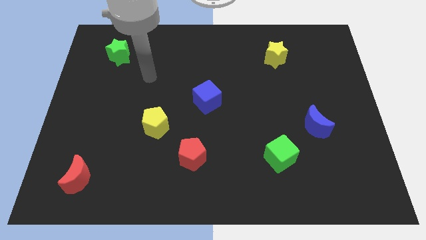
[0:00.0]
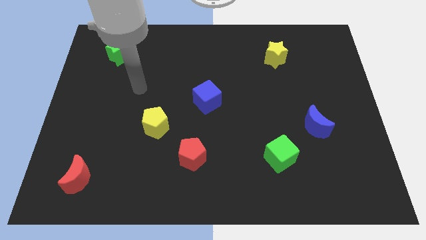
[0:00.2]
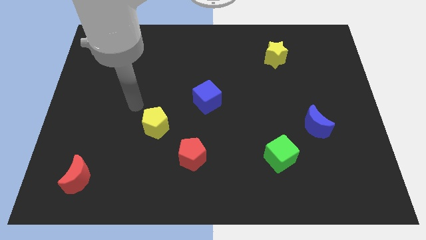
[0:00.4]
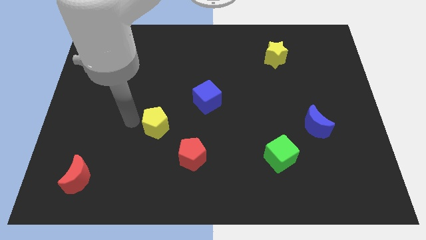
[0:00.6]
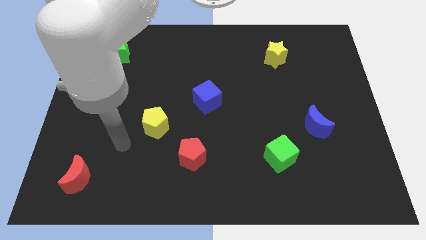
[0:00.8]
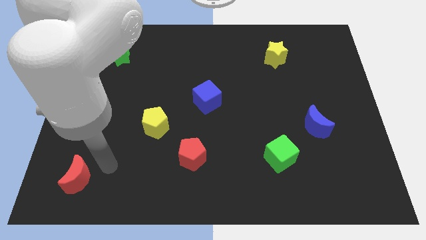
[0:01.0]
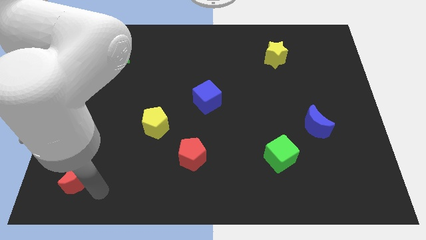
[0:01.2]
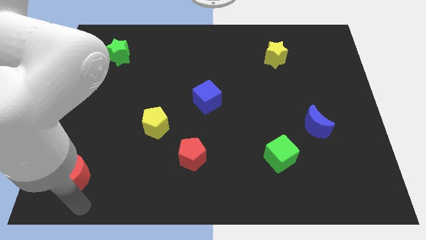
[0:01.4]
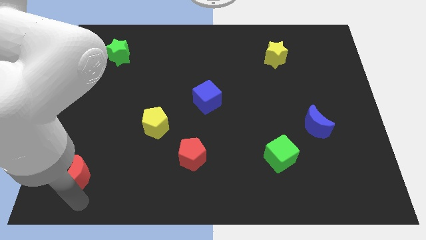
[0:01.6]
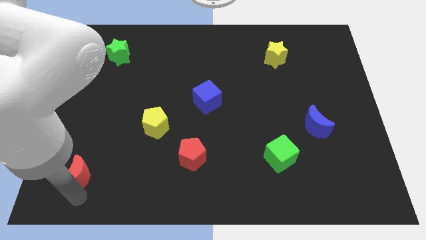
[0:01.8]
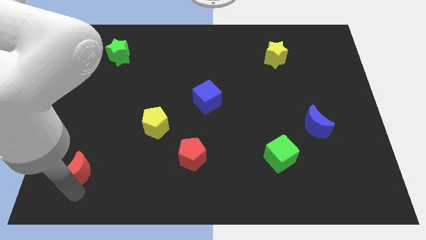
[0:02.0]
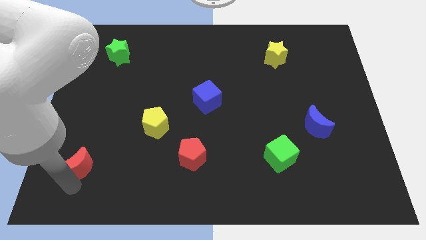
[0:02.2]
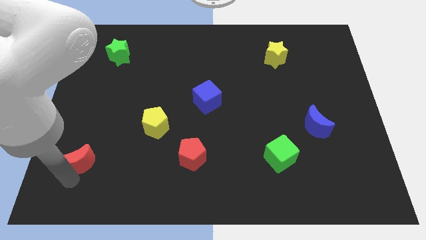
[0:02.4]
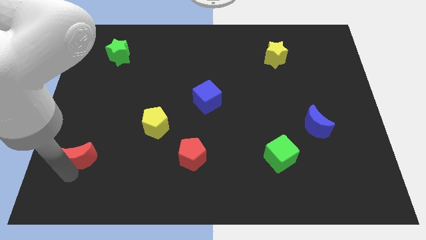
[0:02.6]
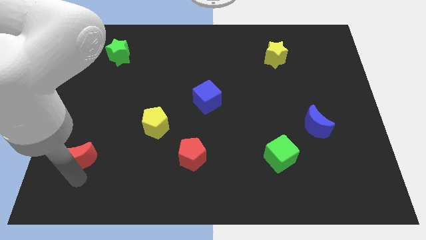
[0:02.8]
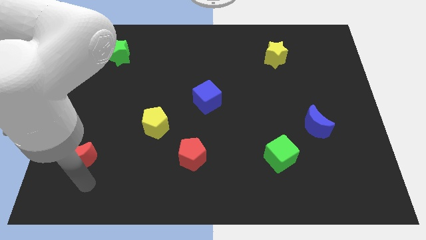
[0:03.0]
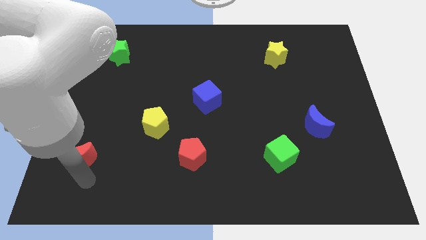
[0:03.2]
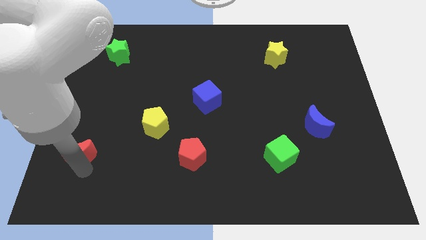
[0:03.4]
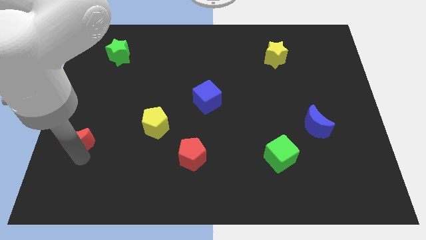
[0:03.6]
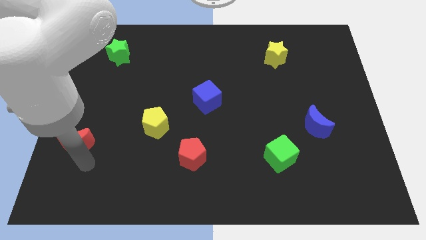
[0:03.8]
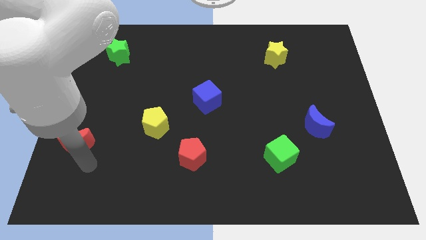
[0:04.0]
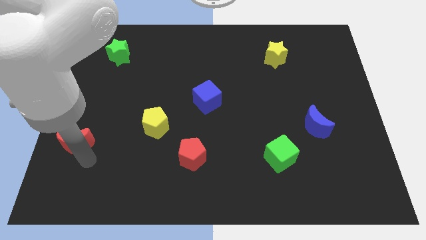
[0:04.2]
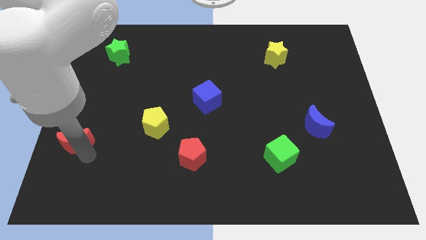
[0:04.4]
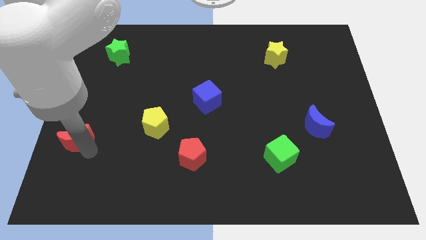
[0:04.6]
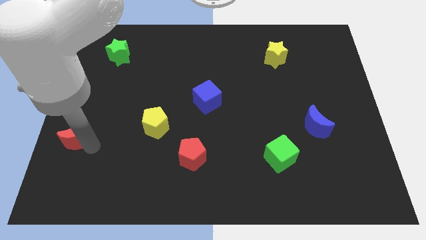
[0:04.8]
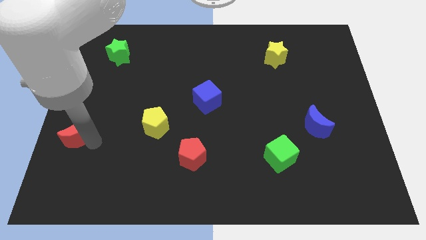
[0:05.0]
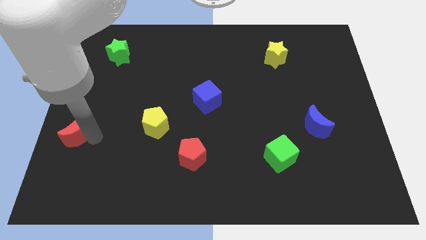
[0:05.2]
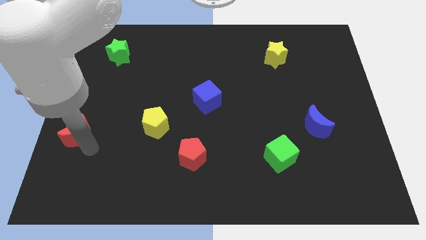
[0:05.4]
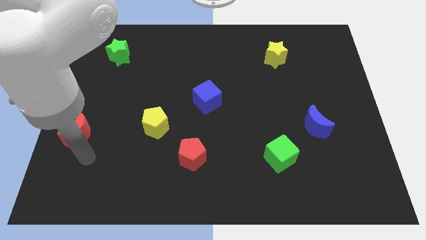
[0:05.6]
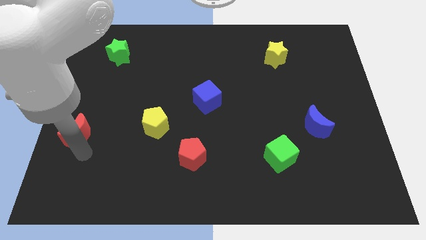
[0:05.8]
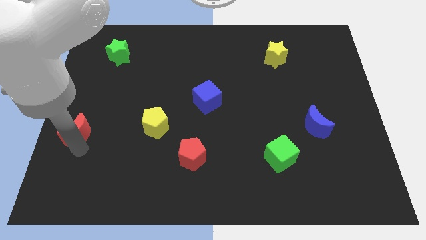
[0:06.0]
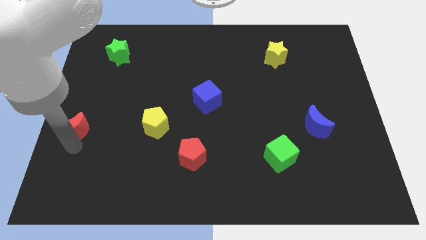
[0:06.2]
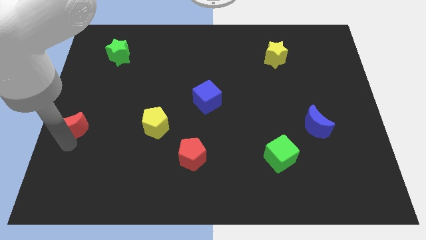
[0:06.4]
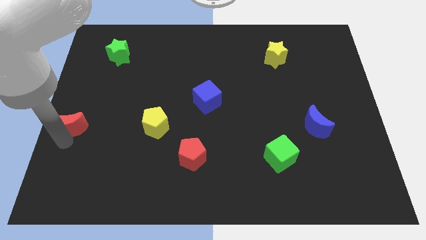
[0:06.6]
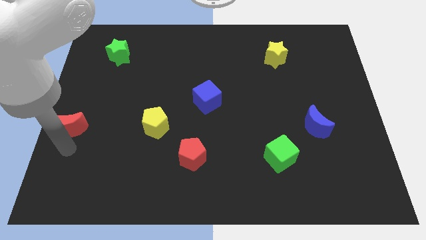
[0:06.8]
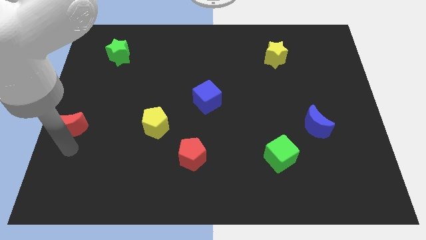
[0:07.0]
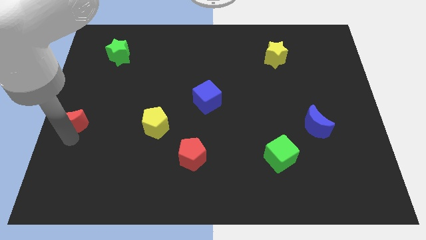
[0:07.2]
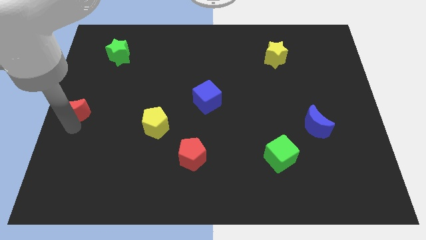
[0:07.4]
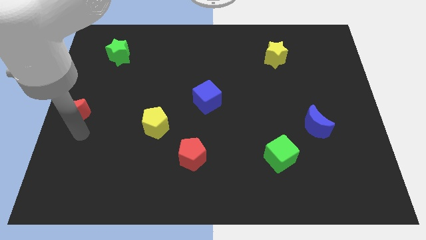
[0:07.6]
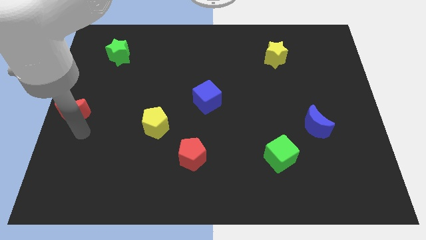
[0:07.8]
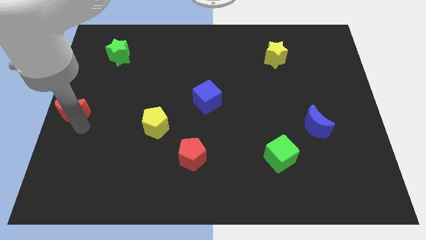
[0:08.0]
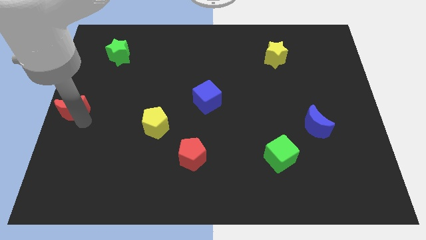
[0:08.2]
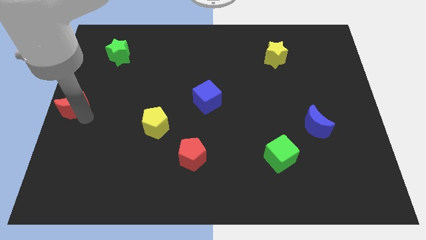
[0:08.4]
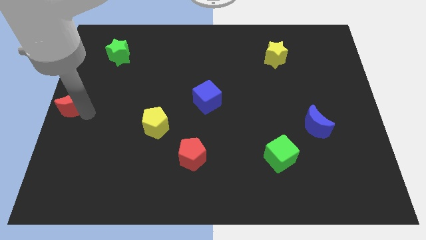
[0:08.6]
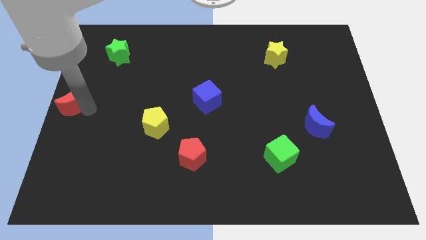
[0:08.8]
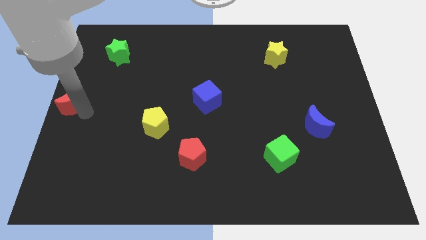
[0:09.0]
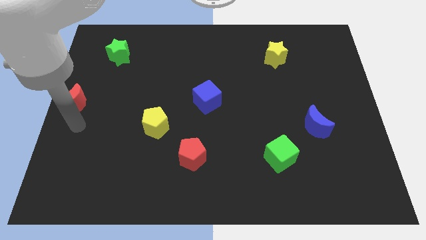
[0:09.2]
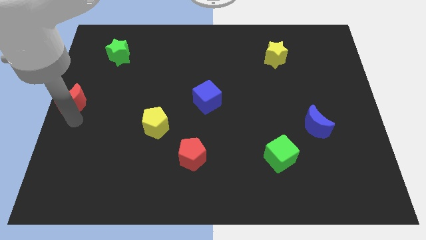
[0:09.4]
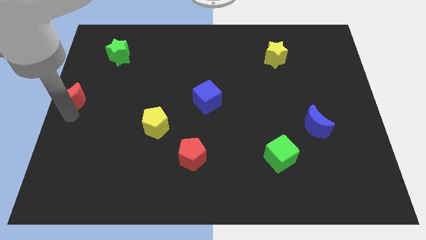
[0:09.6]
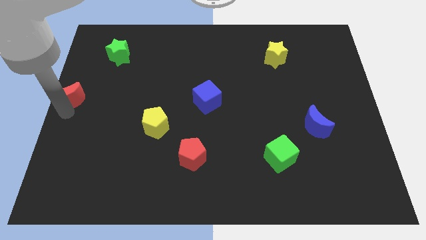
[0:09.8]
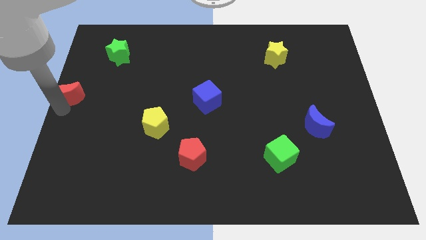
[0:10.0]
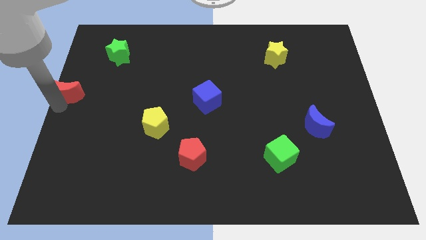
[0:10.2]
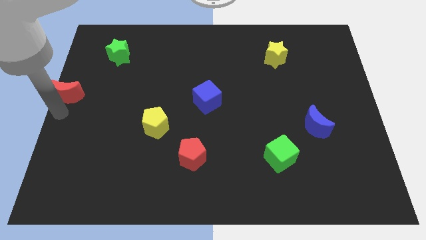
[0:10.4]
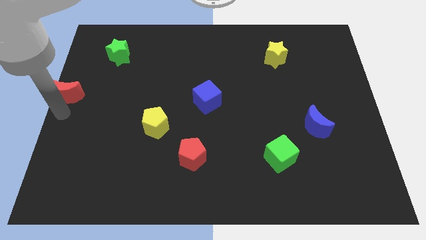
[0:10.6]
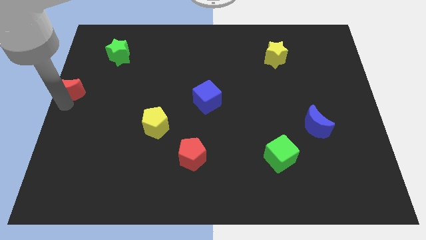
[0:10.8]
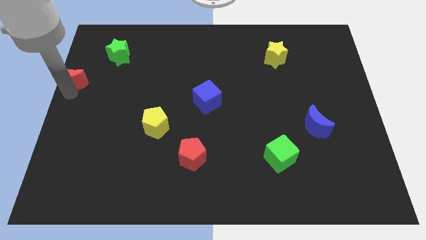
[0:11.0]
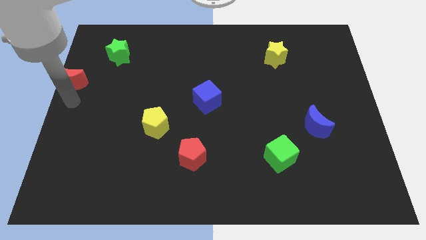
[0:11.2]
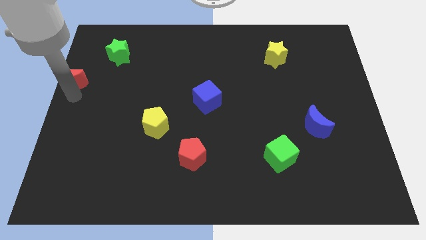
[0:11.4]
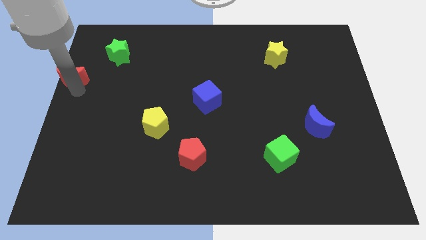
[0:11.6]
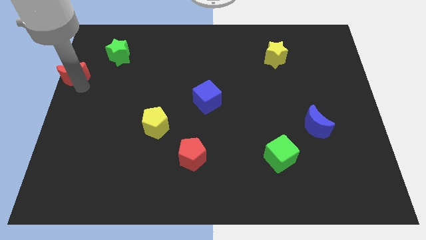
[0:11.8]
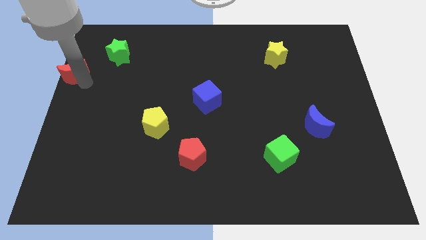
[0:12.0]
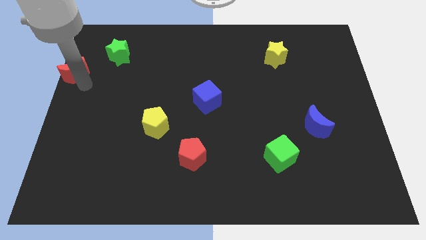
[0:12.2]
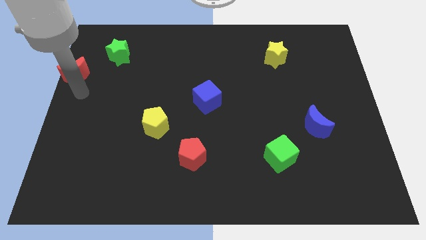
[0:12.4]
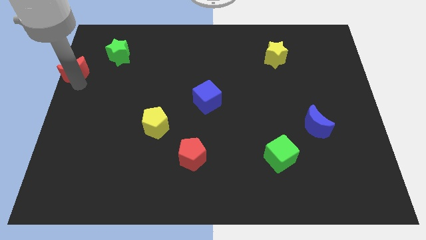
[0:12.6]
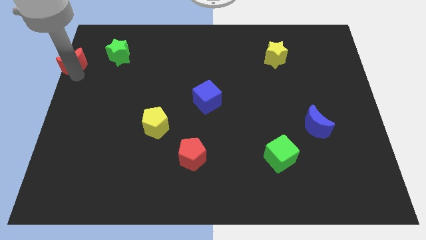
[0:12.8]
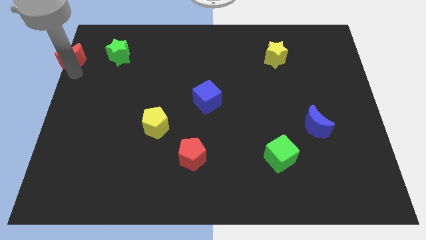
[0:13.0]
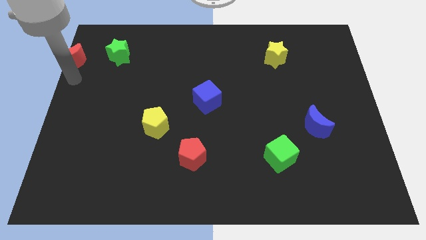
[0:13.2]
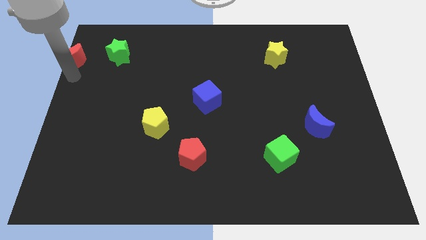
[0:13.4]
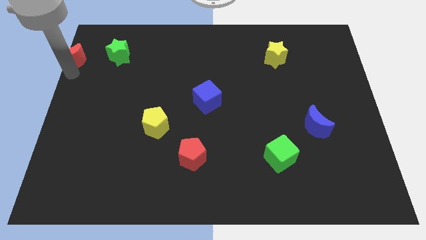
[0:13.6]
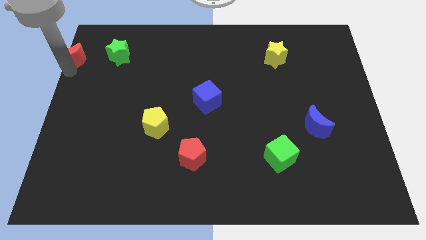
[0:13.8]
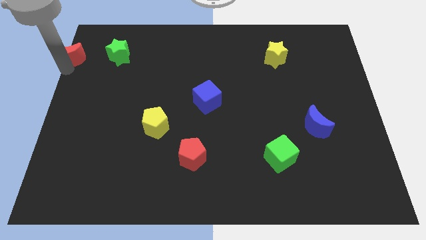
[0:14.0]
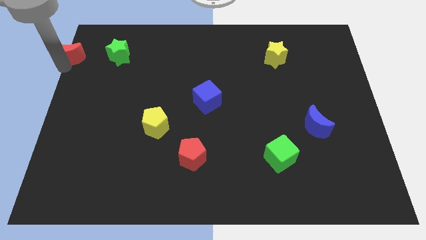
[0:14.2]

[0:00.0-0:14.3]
move the red moon to the top left
